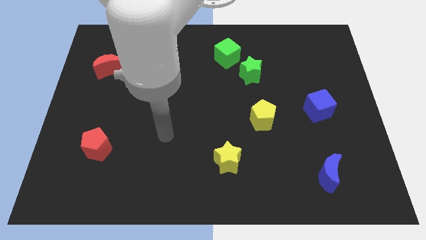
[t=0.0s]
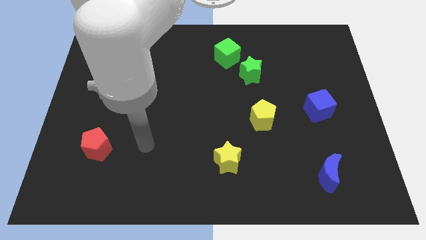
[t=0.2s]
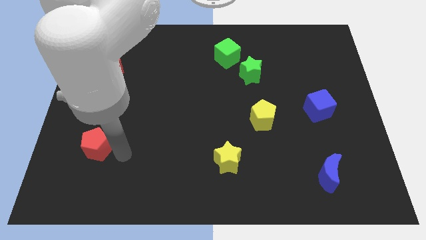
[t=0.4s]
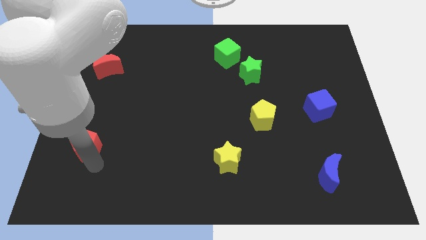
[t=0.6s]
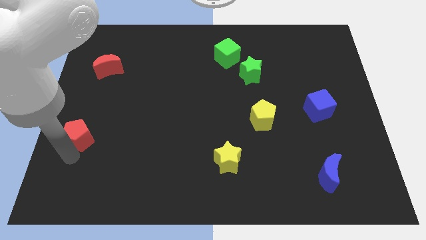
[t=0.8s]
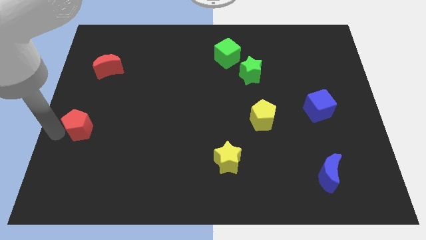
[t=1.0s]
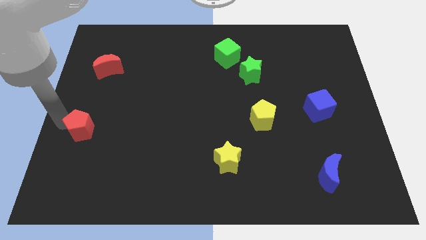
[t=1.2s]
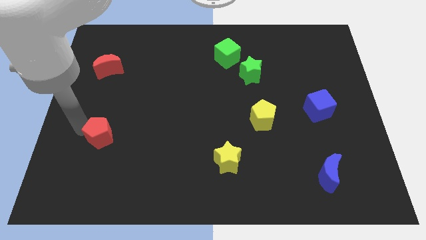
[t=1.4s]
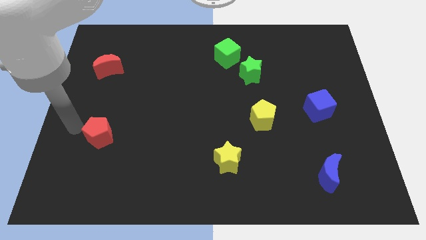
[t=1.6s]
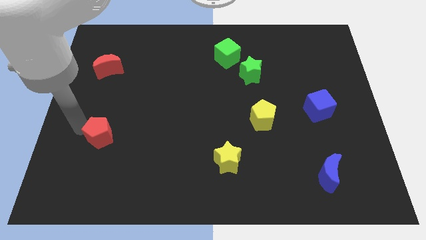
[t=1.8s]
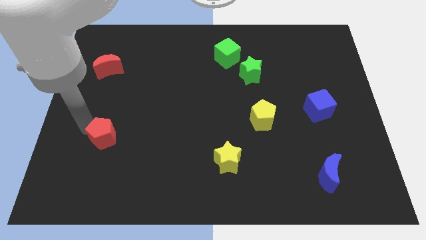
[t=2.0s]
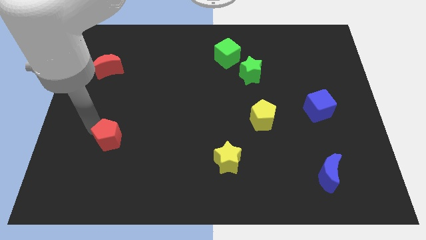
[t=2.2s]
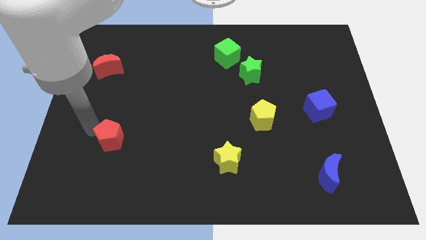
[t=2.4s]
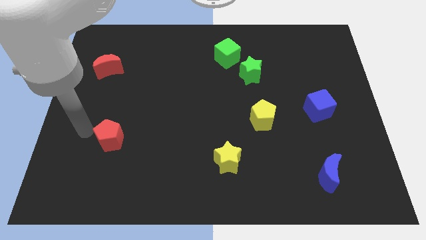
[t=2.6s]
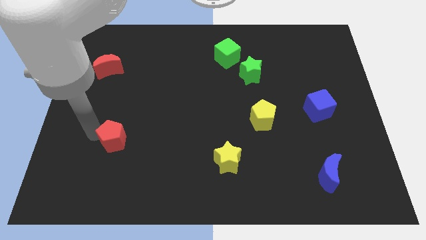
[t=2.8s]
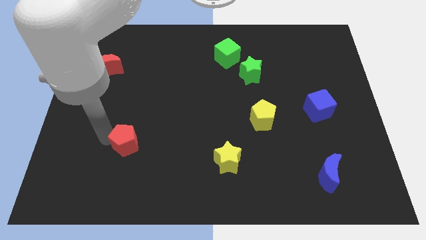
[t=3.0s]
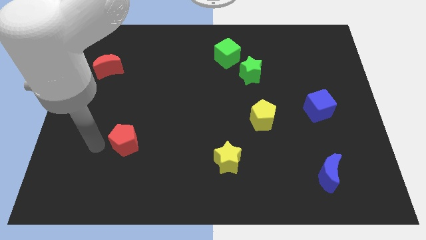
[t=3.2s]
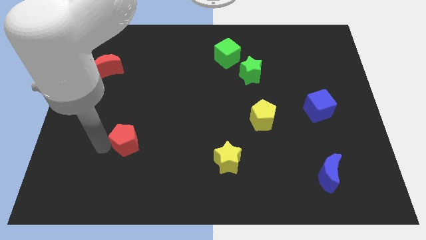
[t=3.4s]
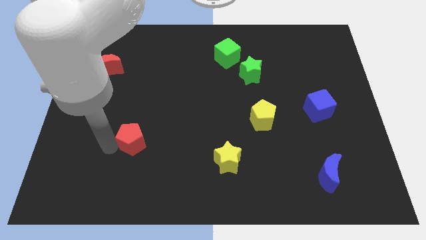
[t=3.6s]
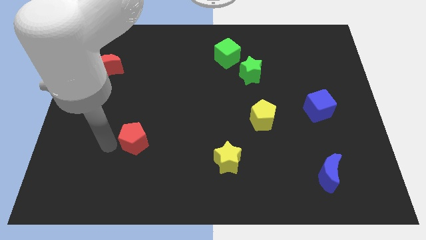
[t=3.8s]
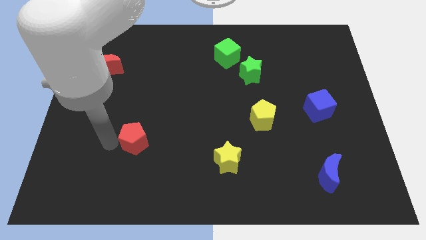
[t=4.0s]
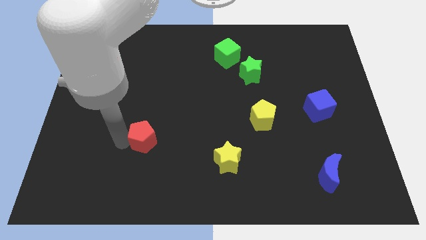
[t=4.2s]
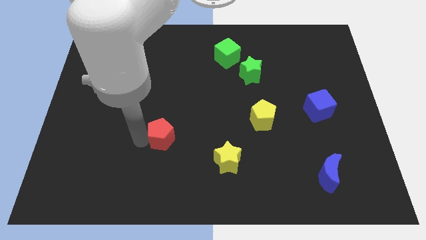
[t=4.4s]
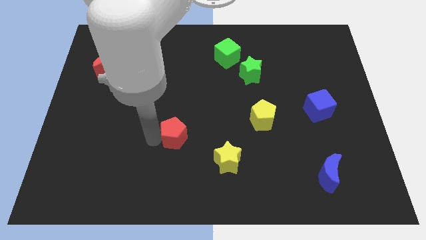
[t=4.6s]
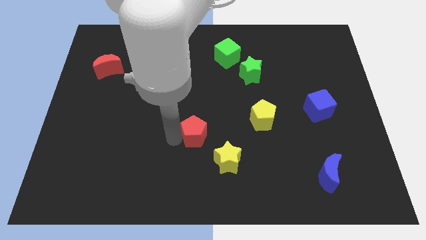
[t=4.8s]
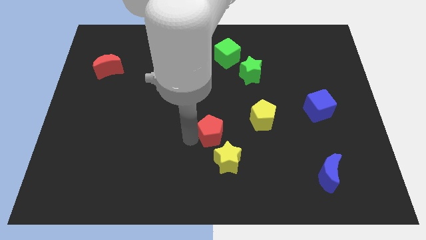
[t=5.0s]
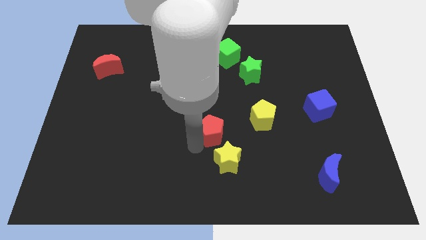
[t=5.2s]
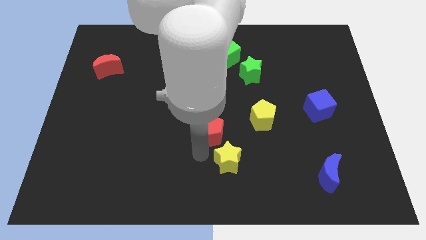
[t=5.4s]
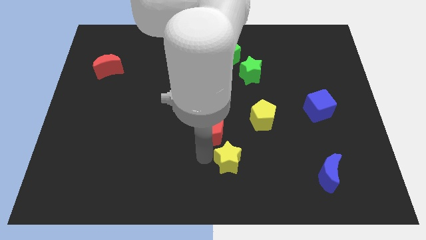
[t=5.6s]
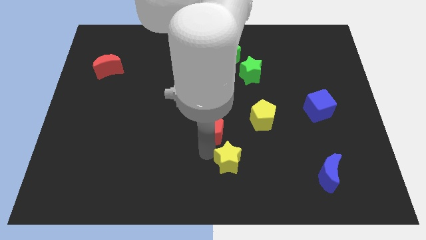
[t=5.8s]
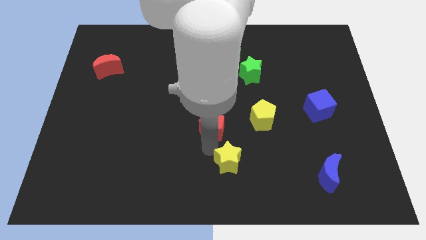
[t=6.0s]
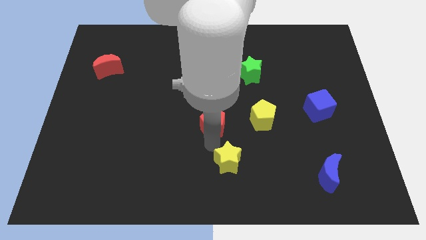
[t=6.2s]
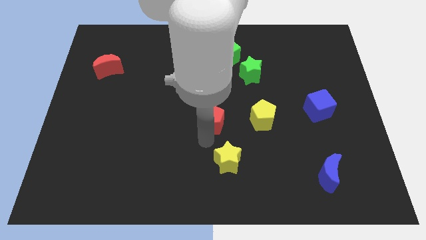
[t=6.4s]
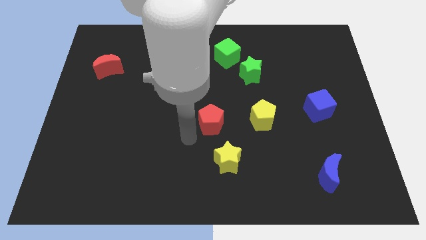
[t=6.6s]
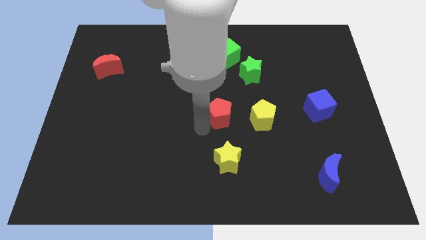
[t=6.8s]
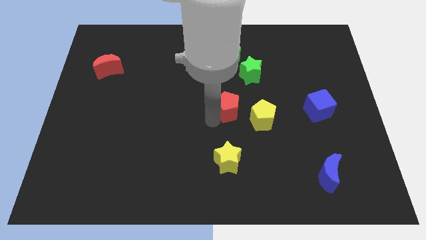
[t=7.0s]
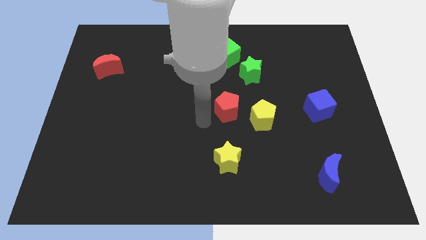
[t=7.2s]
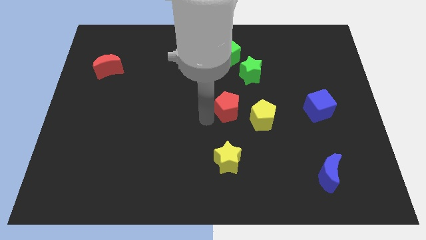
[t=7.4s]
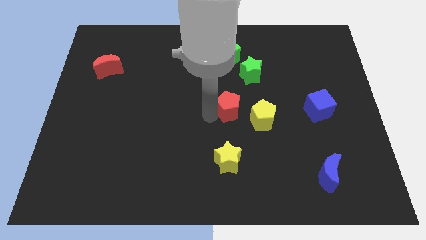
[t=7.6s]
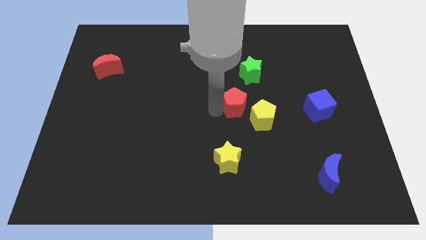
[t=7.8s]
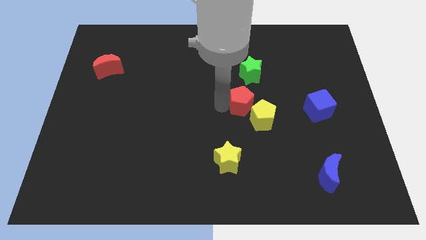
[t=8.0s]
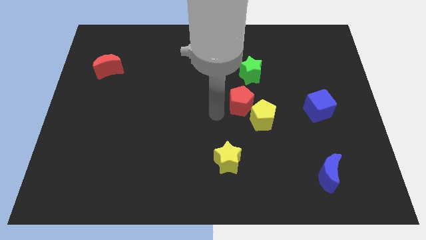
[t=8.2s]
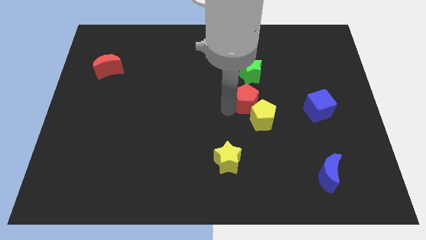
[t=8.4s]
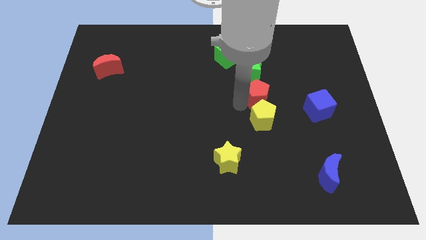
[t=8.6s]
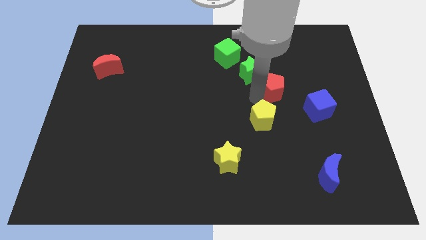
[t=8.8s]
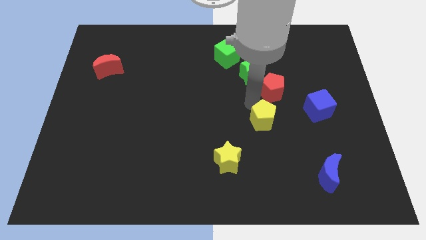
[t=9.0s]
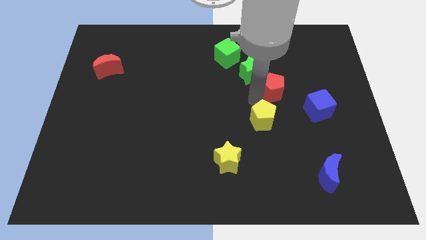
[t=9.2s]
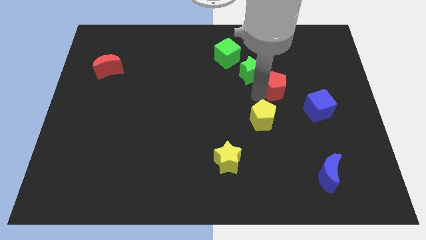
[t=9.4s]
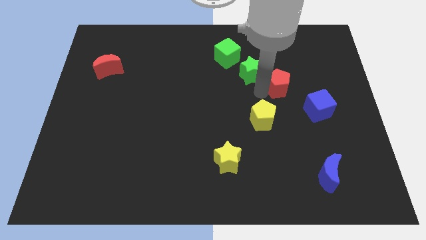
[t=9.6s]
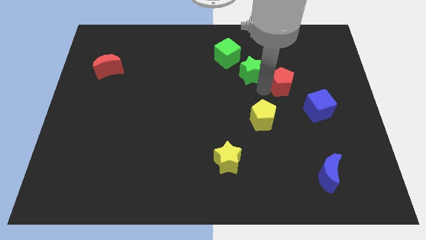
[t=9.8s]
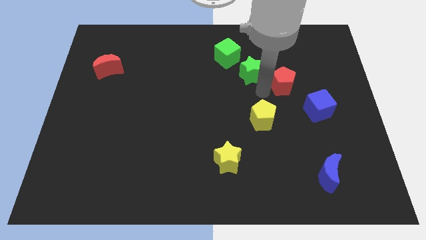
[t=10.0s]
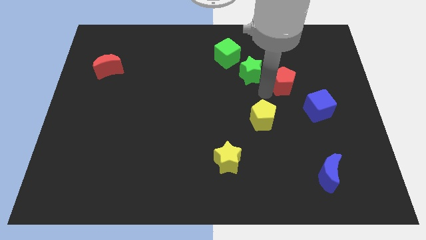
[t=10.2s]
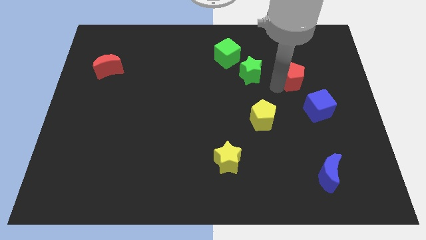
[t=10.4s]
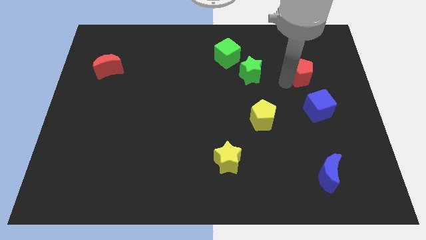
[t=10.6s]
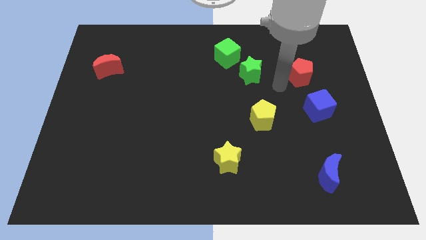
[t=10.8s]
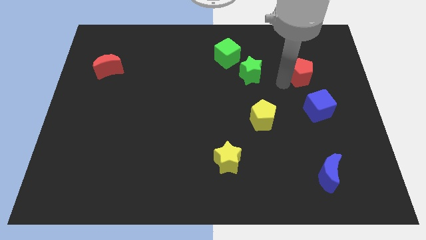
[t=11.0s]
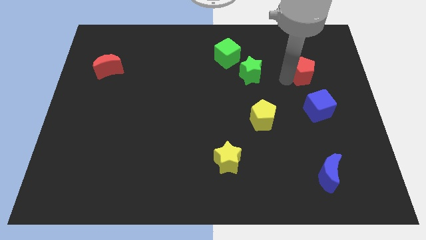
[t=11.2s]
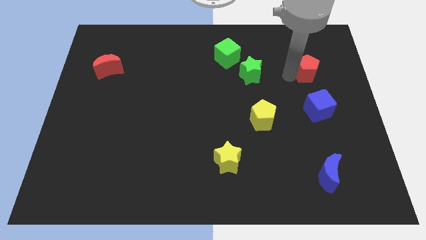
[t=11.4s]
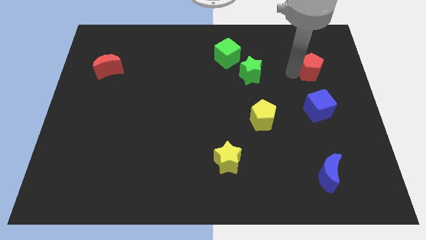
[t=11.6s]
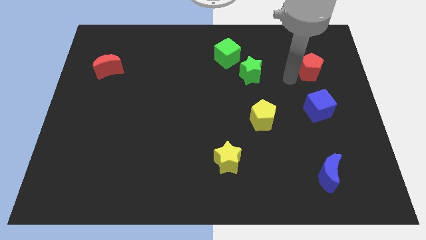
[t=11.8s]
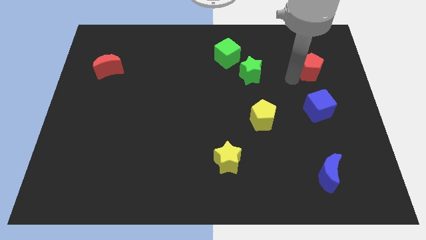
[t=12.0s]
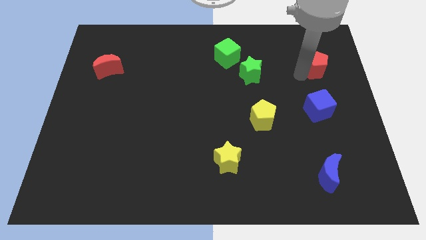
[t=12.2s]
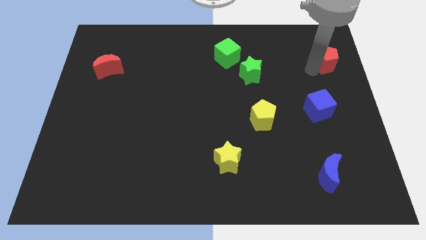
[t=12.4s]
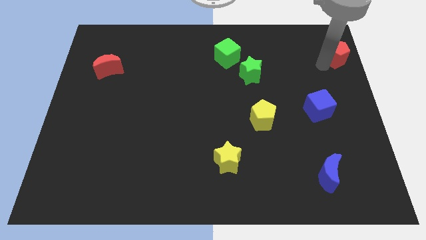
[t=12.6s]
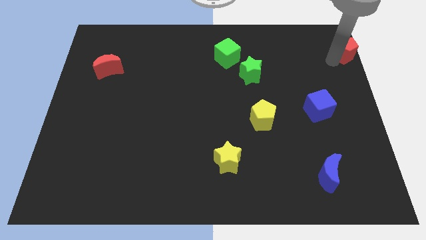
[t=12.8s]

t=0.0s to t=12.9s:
slide the red pentagon to the upper right corner
